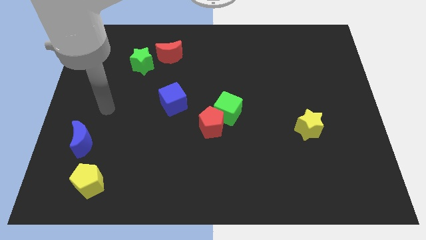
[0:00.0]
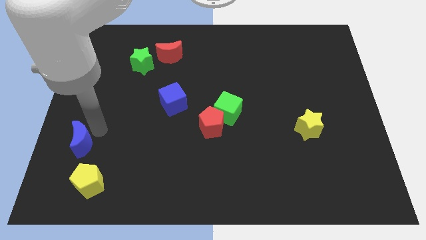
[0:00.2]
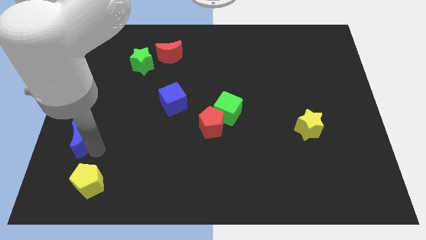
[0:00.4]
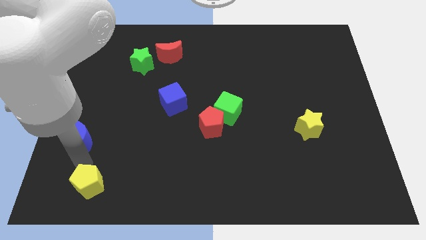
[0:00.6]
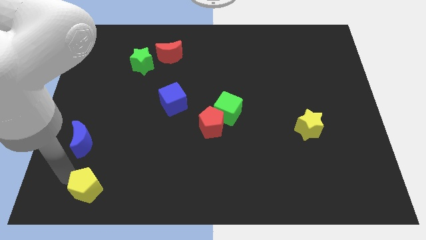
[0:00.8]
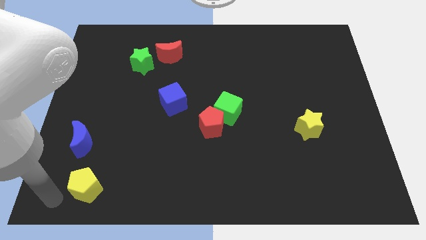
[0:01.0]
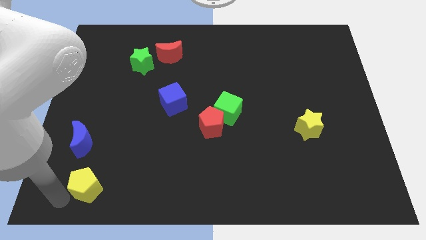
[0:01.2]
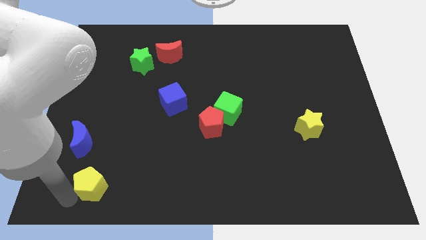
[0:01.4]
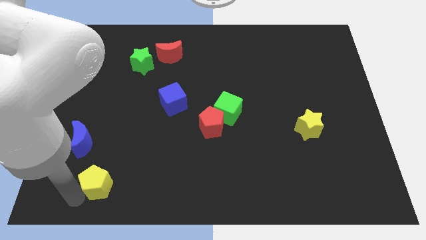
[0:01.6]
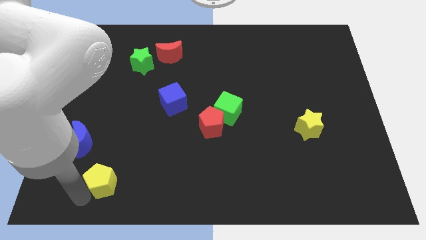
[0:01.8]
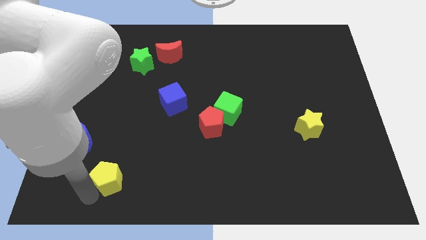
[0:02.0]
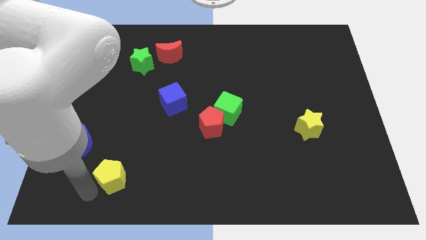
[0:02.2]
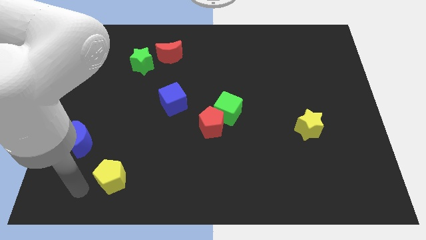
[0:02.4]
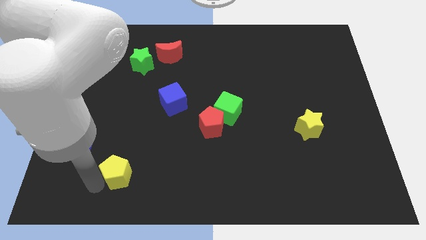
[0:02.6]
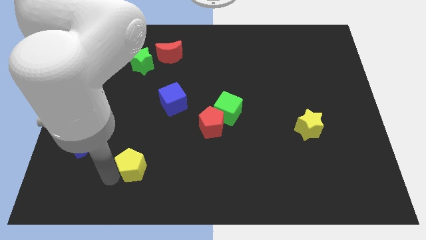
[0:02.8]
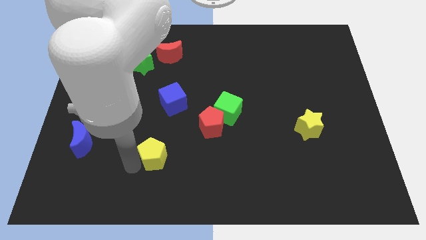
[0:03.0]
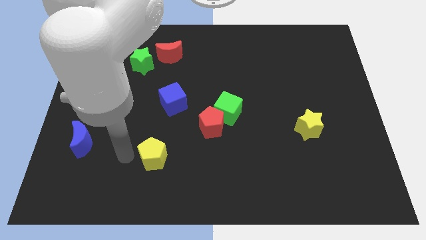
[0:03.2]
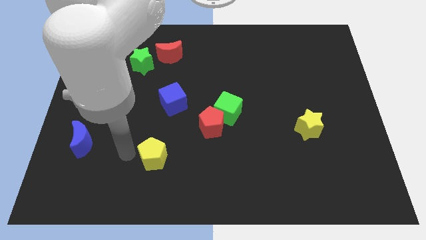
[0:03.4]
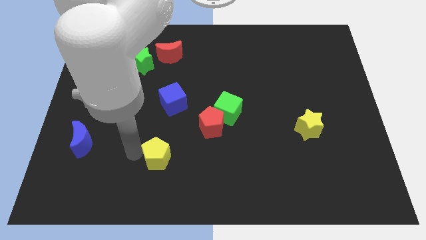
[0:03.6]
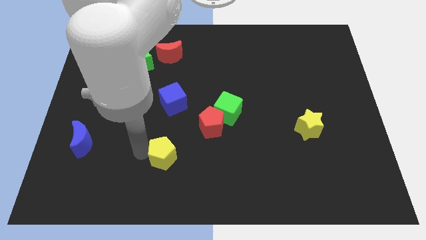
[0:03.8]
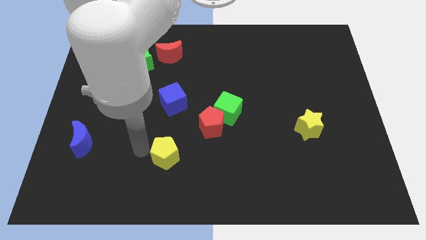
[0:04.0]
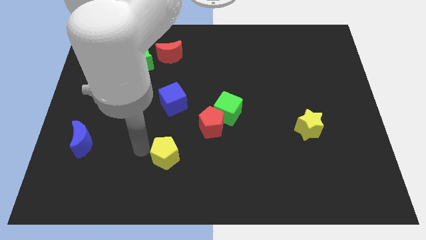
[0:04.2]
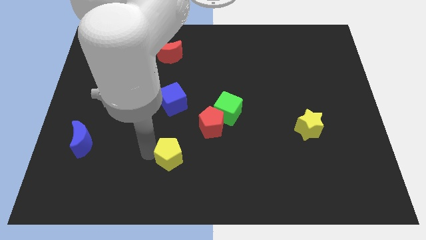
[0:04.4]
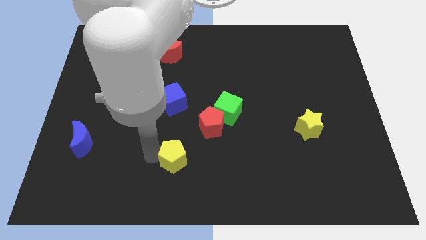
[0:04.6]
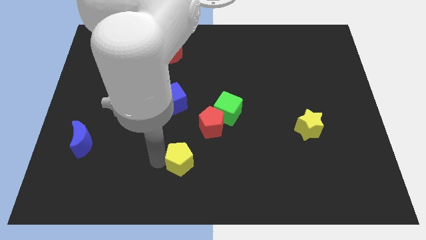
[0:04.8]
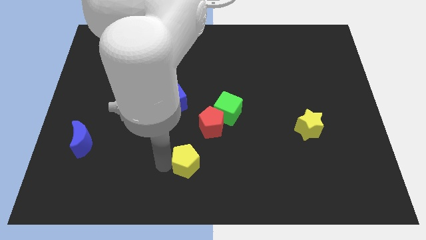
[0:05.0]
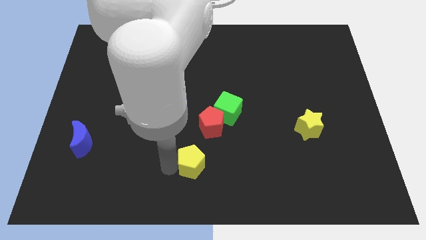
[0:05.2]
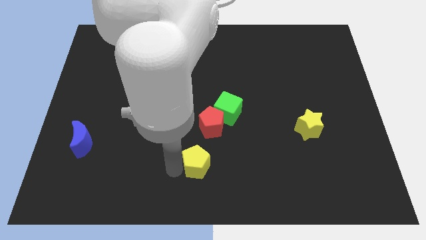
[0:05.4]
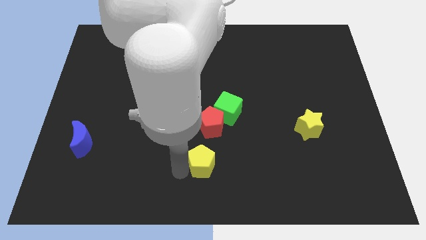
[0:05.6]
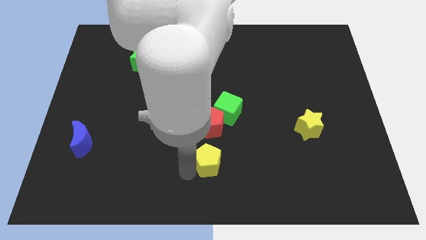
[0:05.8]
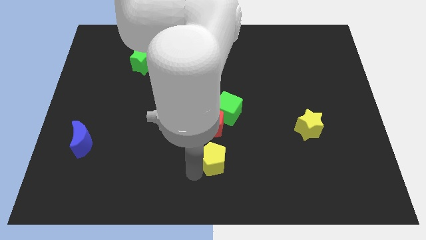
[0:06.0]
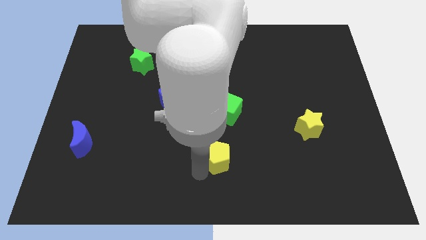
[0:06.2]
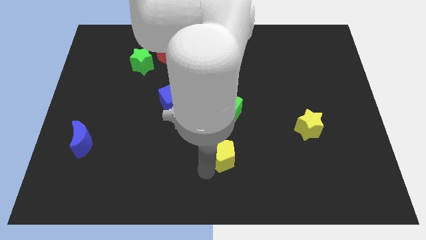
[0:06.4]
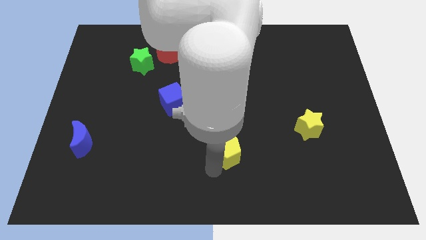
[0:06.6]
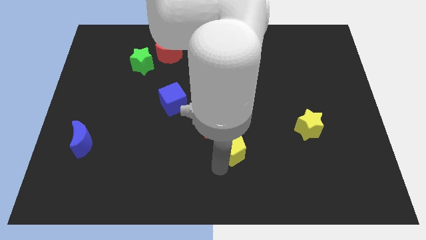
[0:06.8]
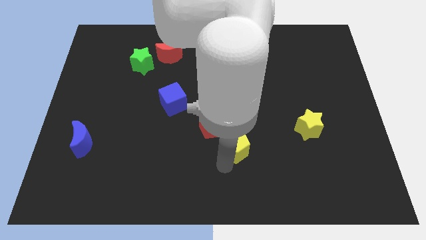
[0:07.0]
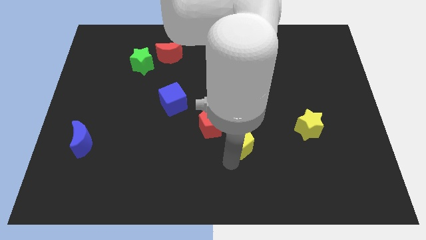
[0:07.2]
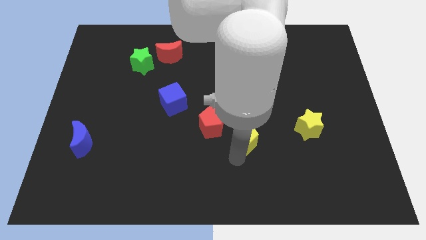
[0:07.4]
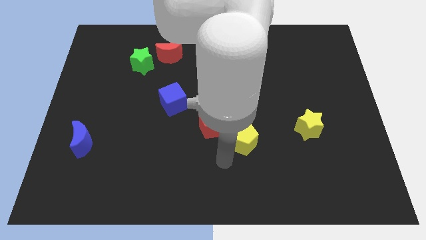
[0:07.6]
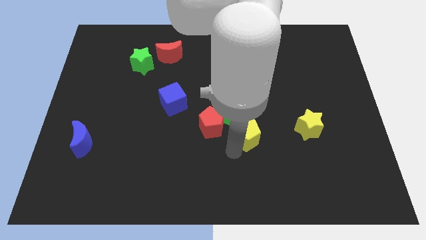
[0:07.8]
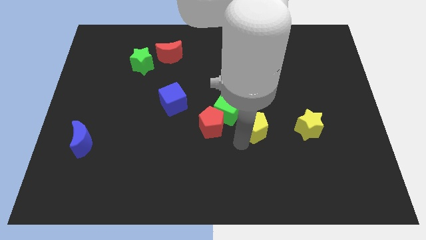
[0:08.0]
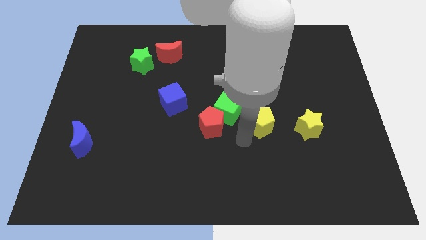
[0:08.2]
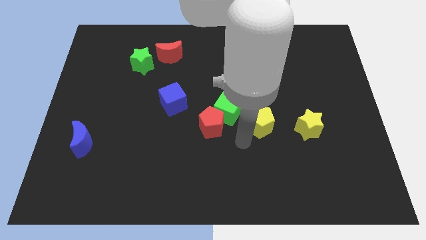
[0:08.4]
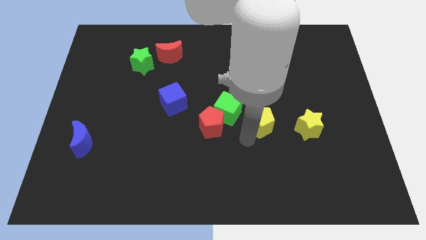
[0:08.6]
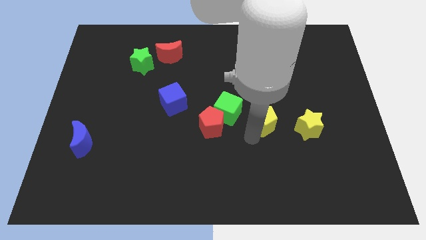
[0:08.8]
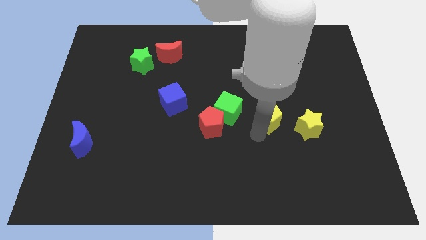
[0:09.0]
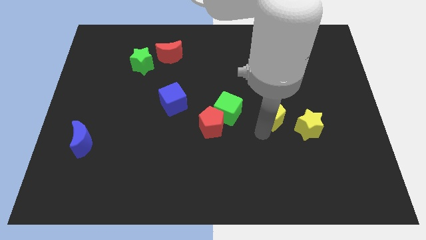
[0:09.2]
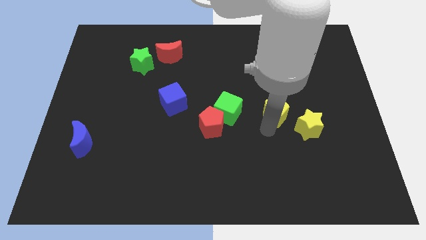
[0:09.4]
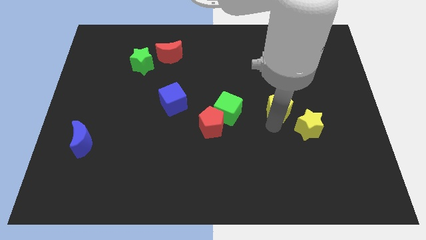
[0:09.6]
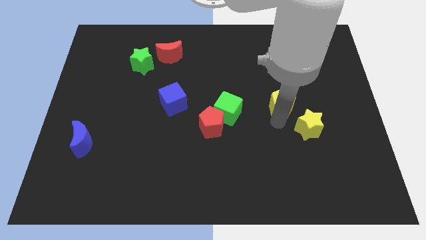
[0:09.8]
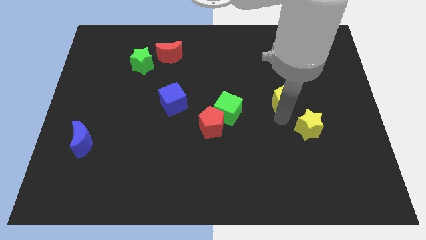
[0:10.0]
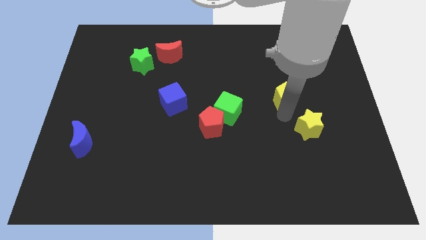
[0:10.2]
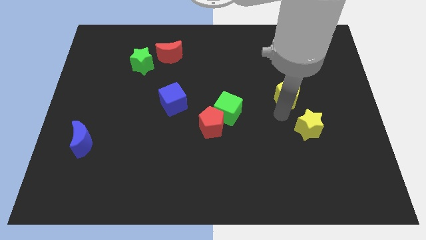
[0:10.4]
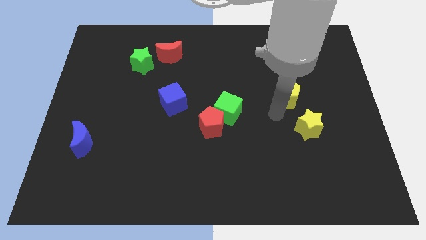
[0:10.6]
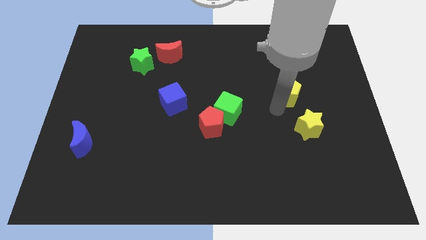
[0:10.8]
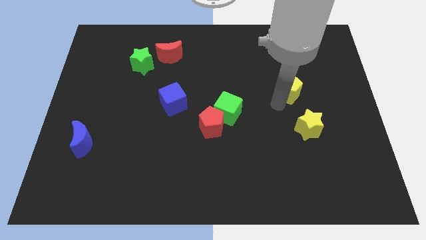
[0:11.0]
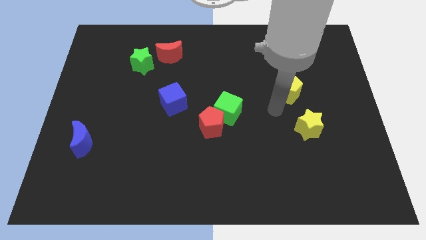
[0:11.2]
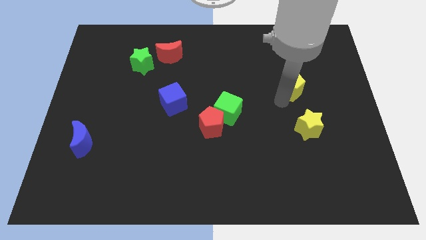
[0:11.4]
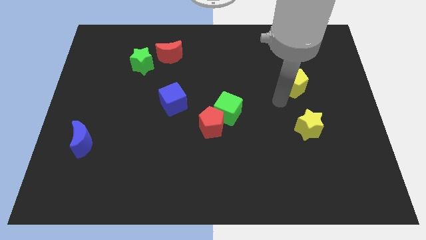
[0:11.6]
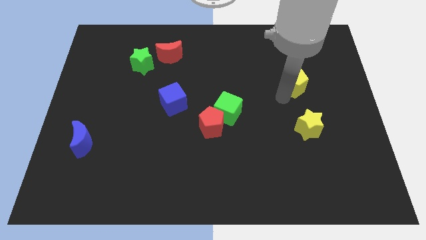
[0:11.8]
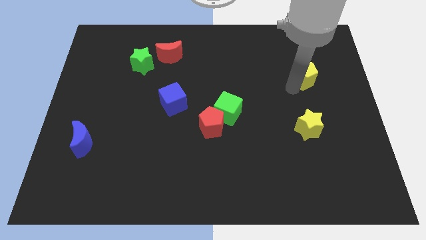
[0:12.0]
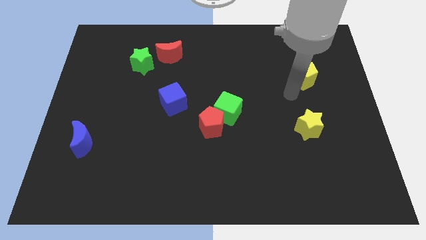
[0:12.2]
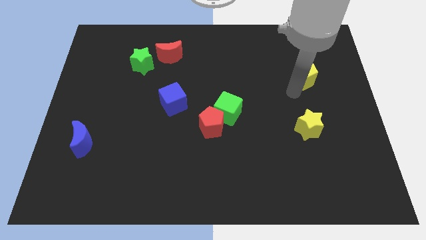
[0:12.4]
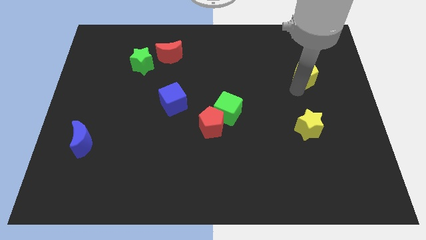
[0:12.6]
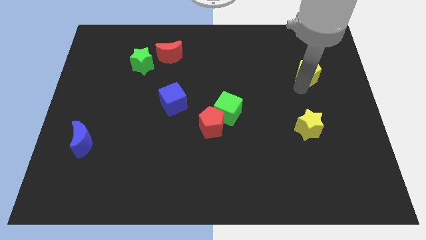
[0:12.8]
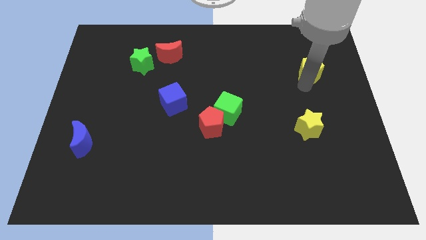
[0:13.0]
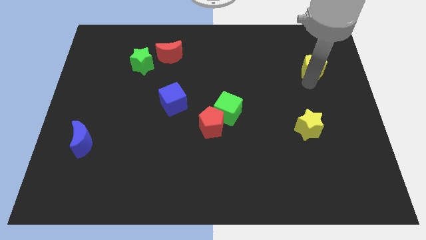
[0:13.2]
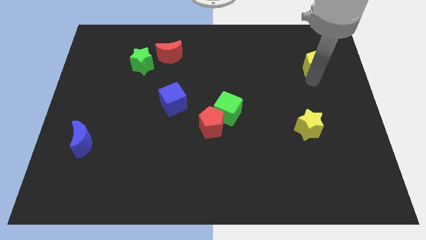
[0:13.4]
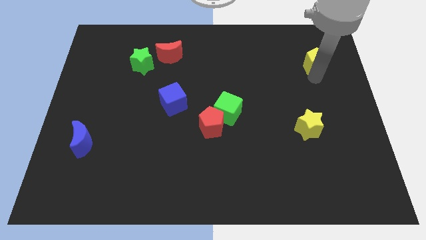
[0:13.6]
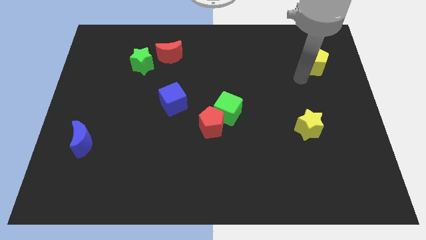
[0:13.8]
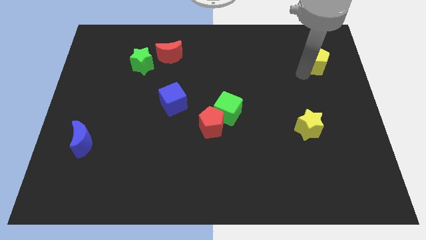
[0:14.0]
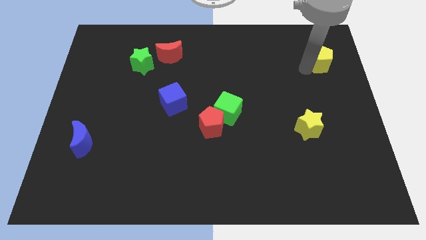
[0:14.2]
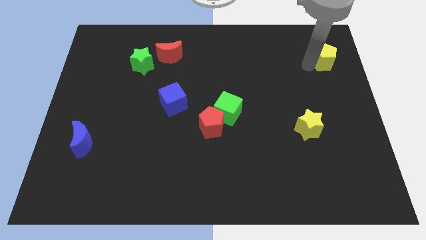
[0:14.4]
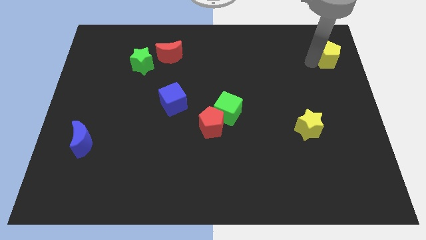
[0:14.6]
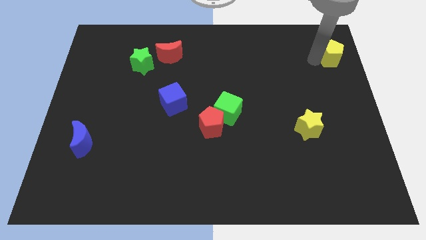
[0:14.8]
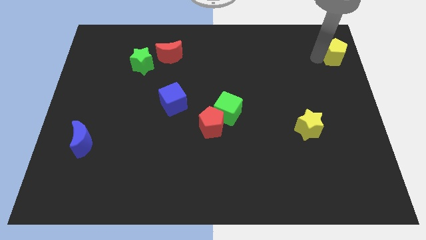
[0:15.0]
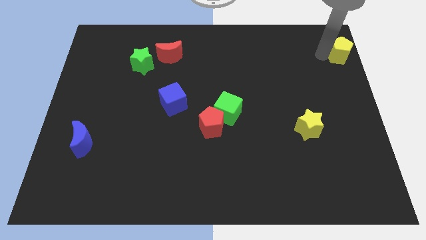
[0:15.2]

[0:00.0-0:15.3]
push the yellow pentagon to the top right
